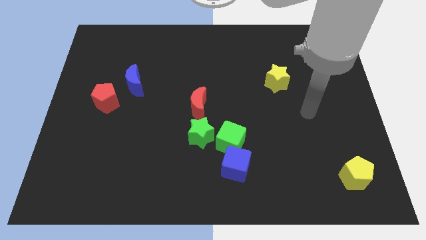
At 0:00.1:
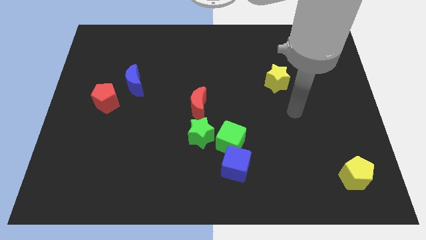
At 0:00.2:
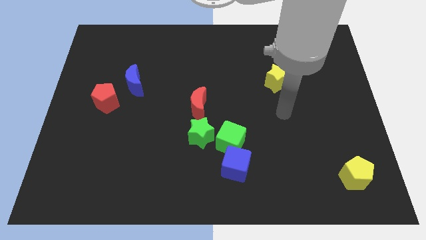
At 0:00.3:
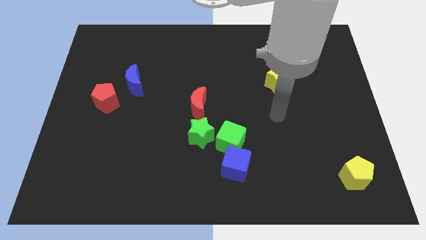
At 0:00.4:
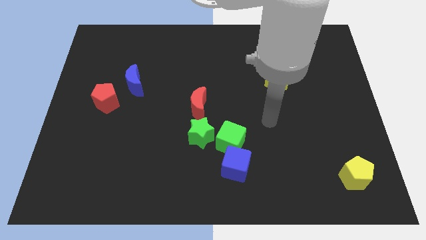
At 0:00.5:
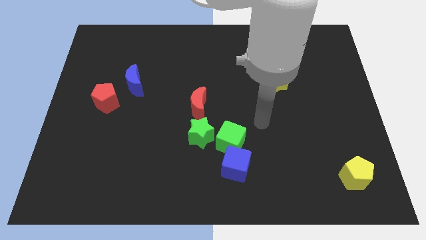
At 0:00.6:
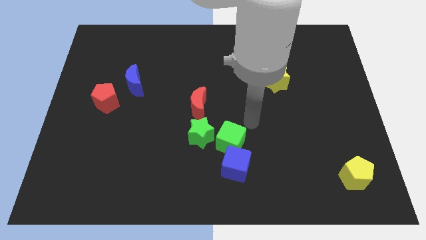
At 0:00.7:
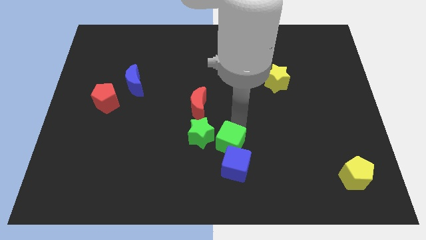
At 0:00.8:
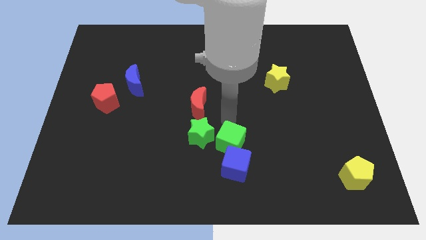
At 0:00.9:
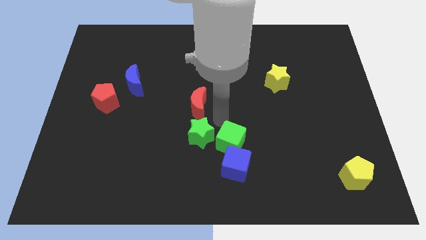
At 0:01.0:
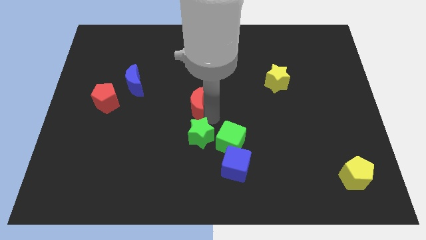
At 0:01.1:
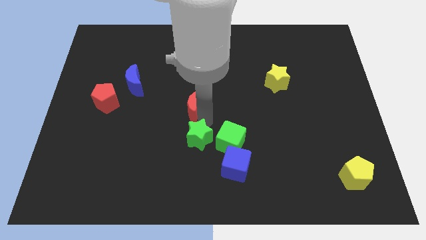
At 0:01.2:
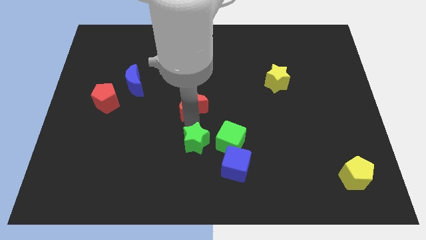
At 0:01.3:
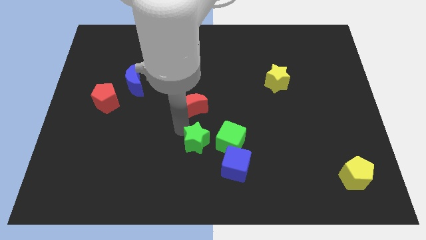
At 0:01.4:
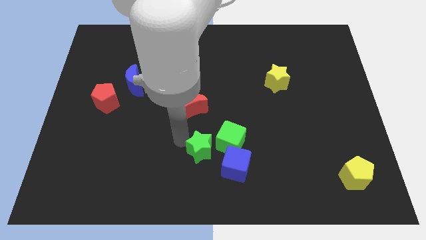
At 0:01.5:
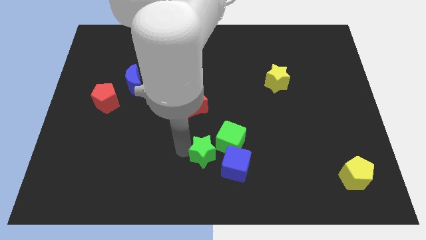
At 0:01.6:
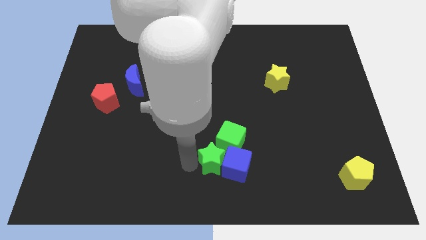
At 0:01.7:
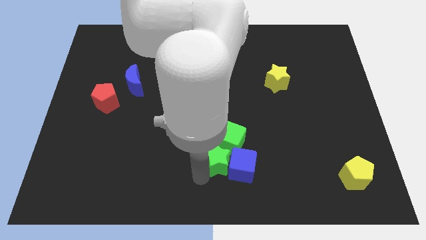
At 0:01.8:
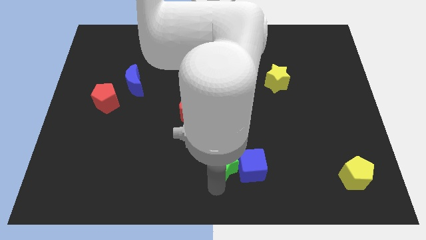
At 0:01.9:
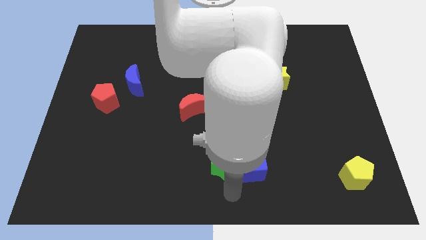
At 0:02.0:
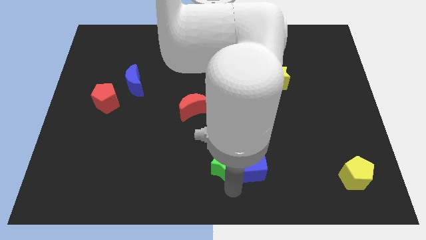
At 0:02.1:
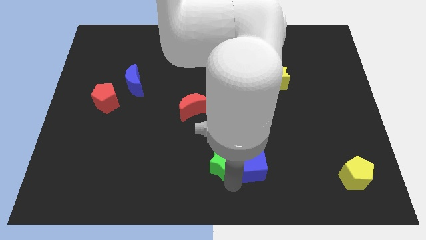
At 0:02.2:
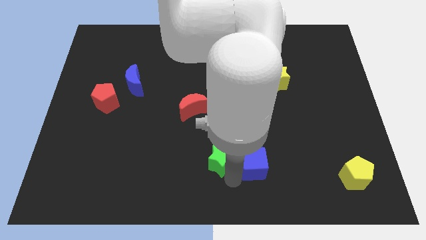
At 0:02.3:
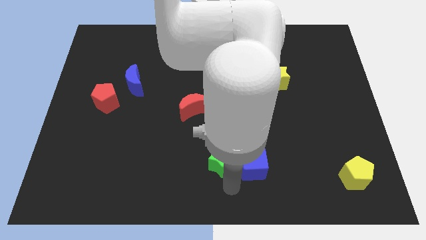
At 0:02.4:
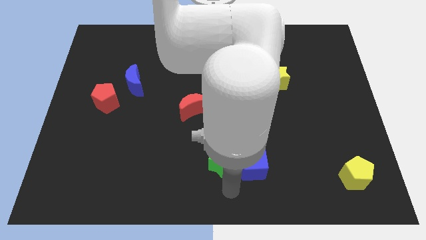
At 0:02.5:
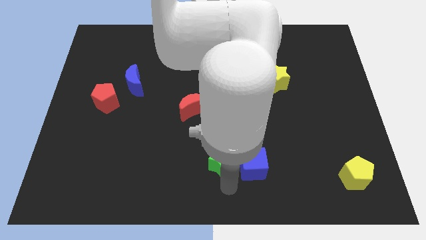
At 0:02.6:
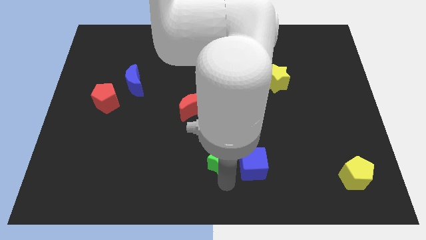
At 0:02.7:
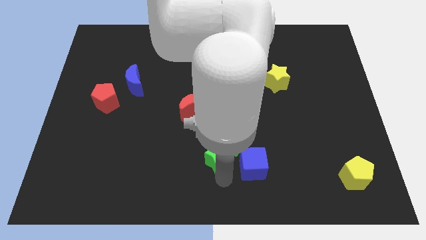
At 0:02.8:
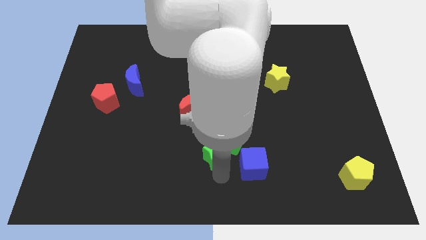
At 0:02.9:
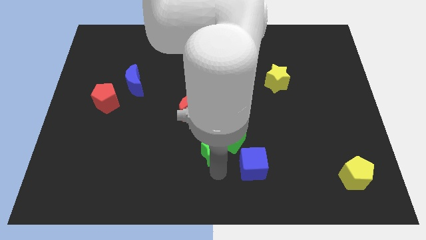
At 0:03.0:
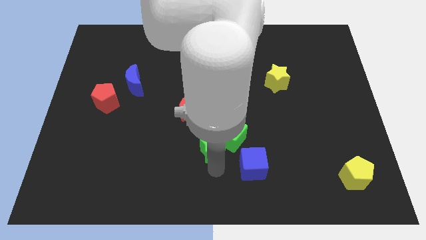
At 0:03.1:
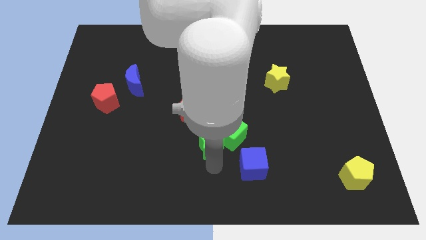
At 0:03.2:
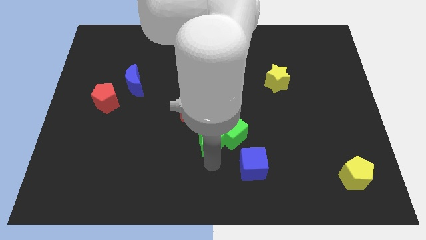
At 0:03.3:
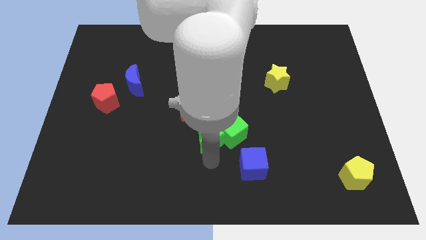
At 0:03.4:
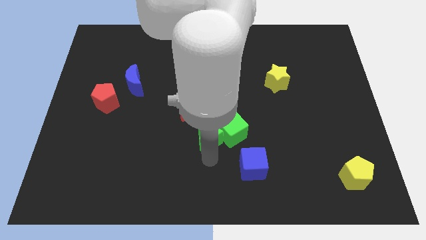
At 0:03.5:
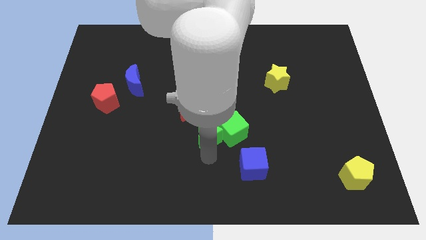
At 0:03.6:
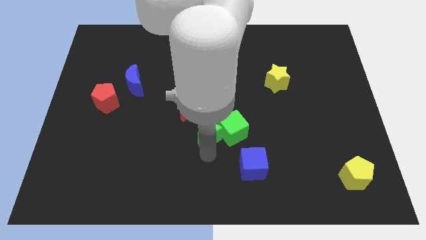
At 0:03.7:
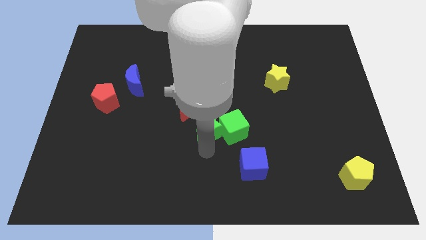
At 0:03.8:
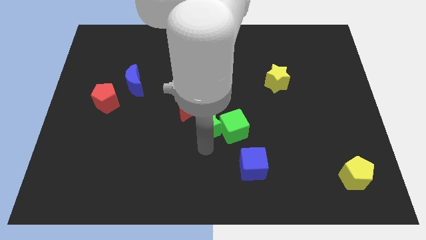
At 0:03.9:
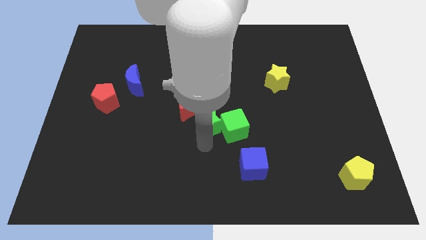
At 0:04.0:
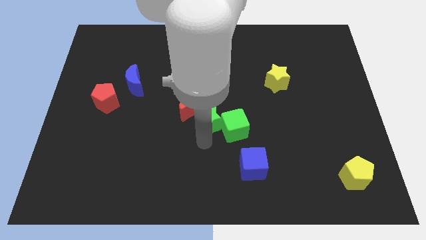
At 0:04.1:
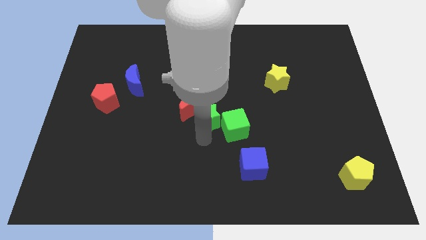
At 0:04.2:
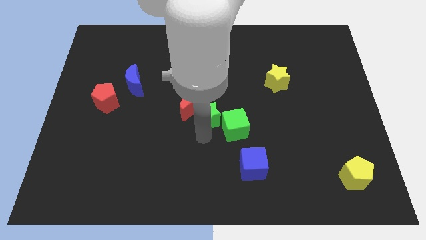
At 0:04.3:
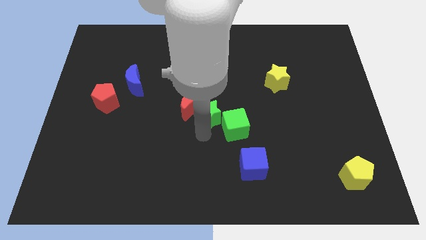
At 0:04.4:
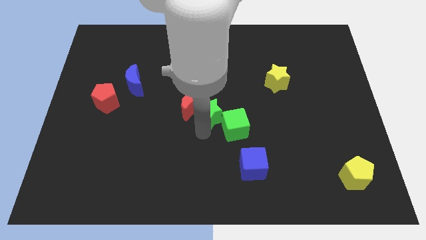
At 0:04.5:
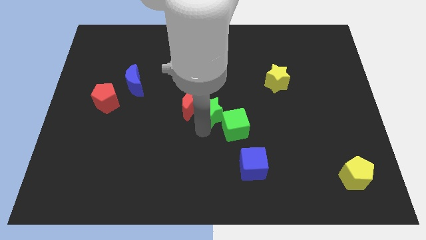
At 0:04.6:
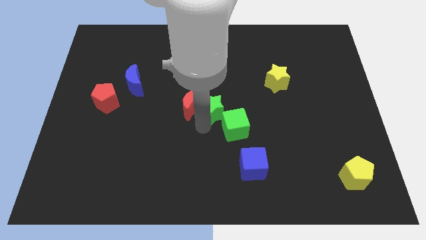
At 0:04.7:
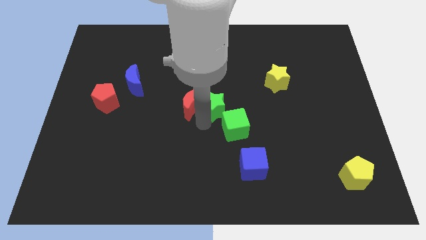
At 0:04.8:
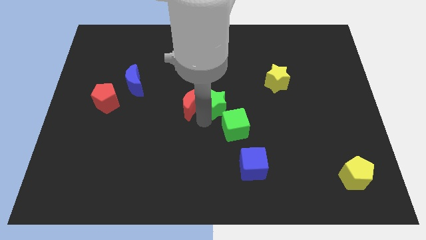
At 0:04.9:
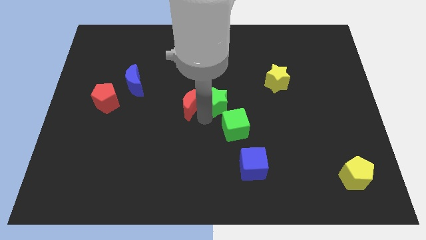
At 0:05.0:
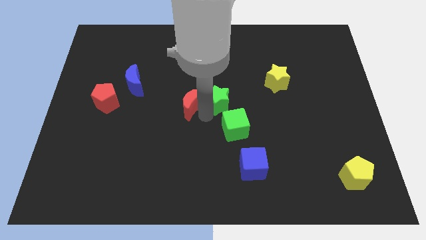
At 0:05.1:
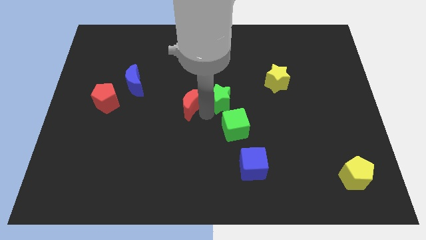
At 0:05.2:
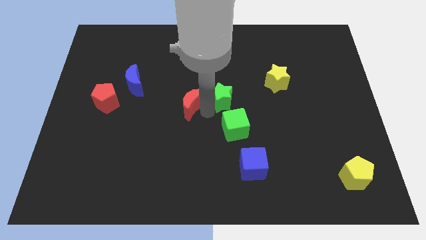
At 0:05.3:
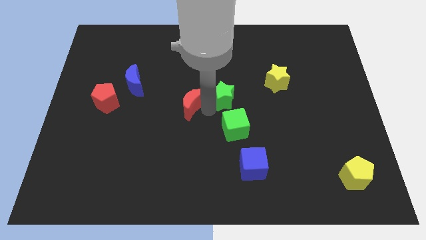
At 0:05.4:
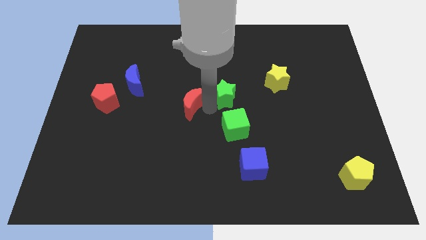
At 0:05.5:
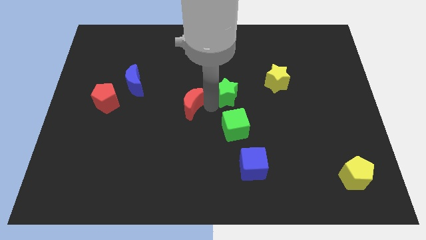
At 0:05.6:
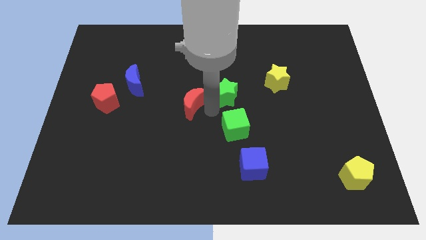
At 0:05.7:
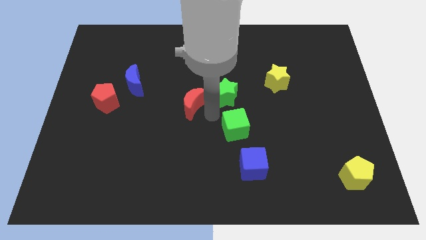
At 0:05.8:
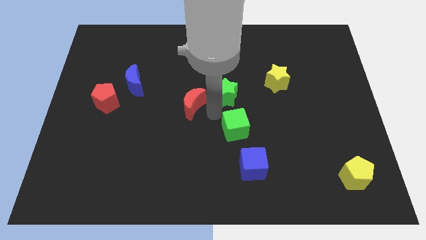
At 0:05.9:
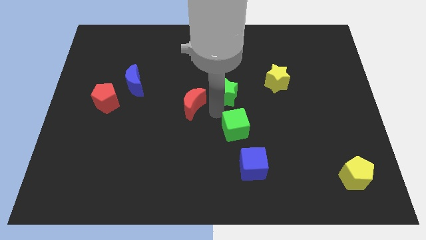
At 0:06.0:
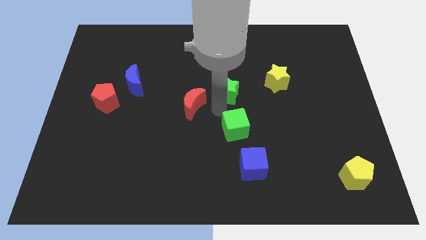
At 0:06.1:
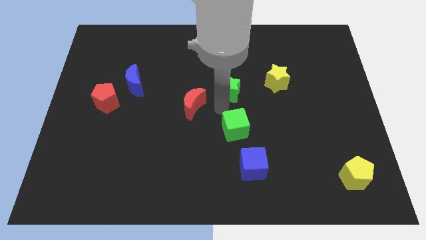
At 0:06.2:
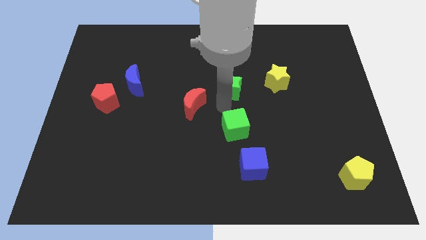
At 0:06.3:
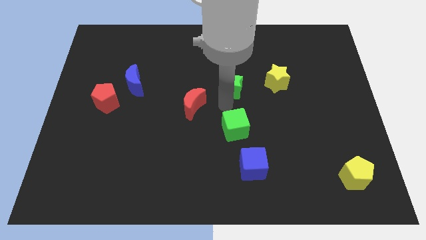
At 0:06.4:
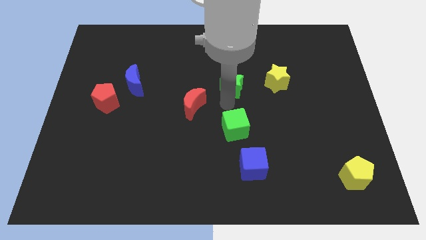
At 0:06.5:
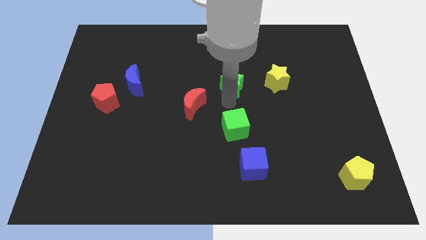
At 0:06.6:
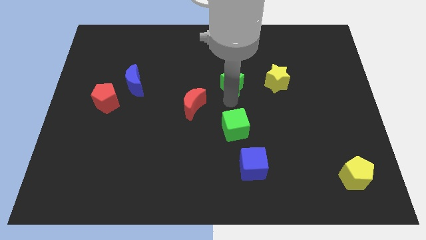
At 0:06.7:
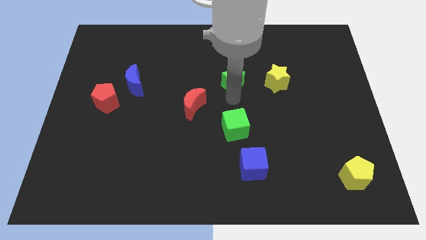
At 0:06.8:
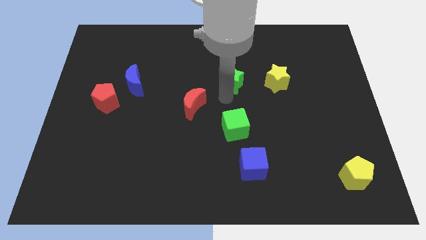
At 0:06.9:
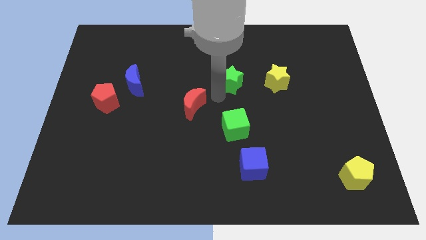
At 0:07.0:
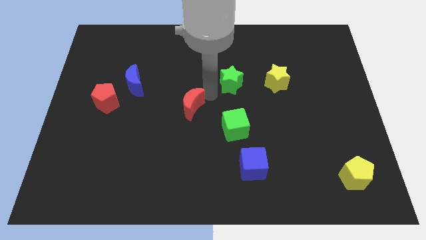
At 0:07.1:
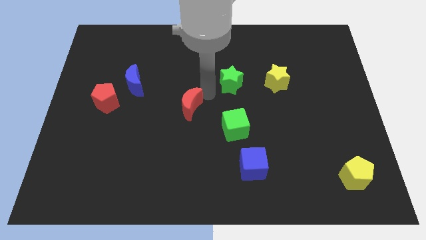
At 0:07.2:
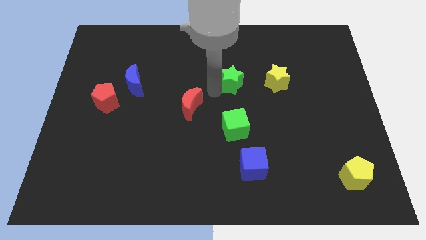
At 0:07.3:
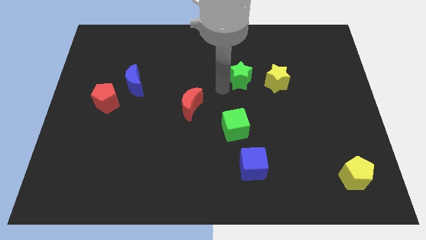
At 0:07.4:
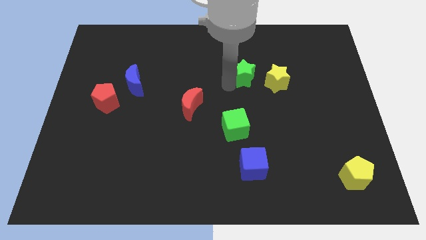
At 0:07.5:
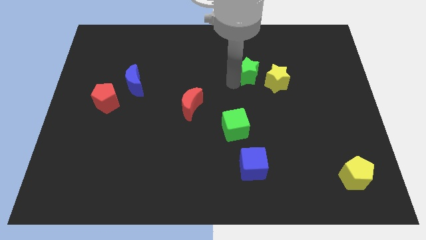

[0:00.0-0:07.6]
slide the green star upwards and to the right diagonally

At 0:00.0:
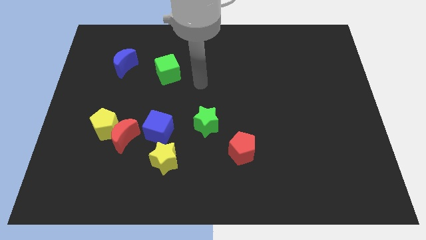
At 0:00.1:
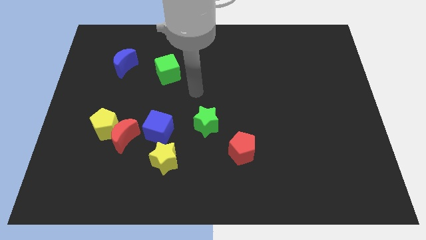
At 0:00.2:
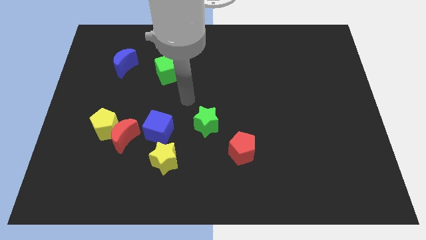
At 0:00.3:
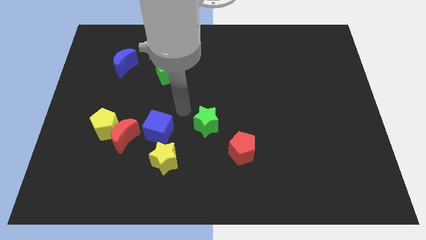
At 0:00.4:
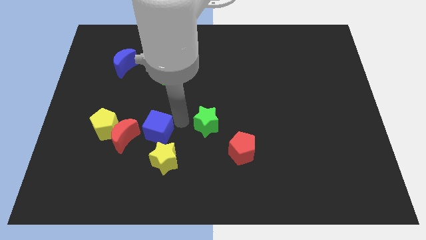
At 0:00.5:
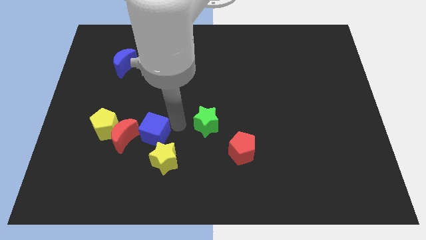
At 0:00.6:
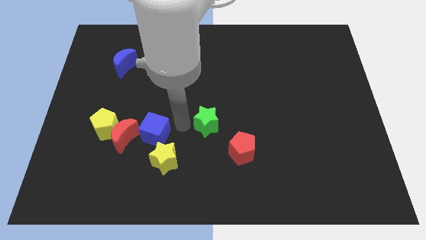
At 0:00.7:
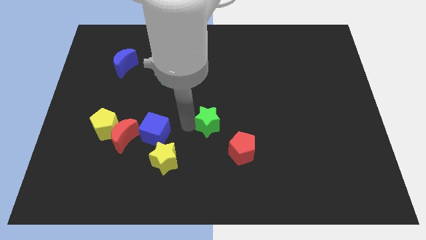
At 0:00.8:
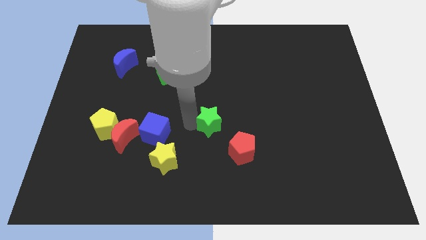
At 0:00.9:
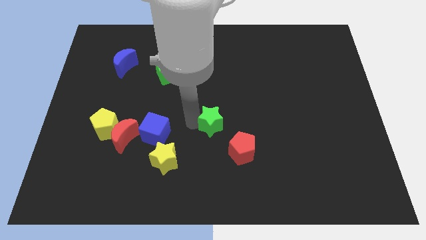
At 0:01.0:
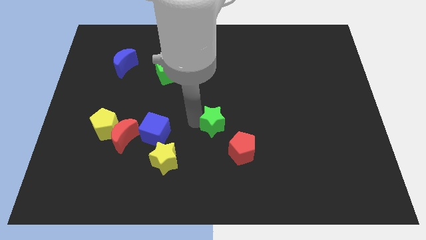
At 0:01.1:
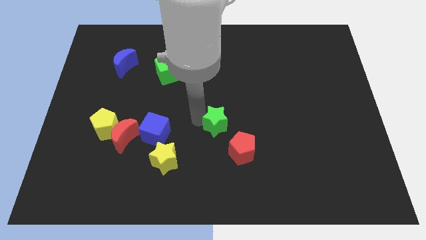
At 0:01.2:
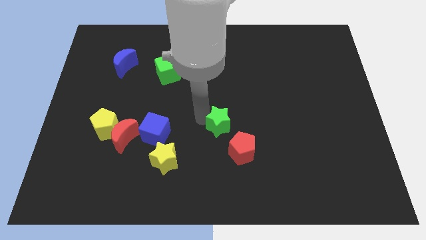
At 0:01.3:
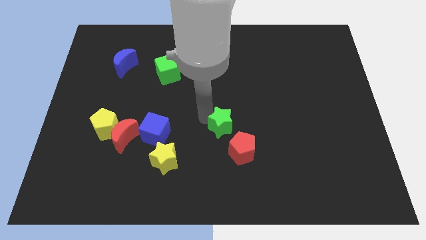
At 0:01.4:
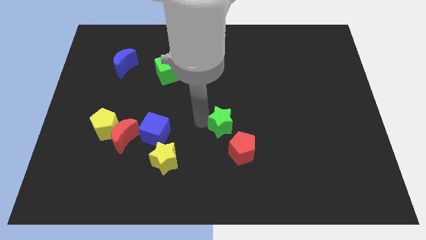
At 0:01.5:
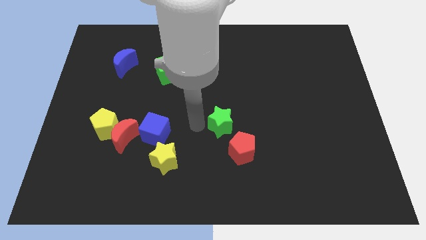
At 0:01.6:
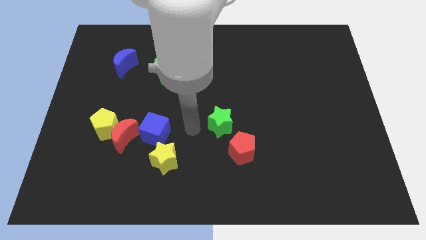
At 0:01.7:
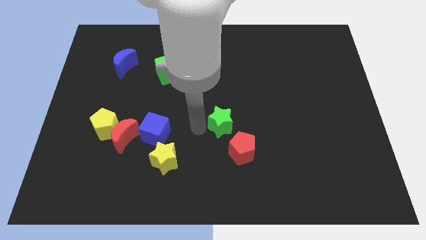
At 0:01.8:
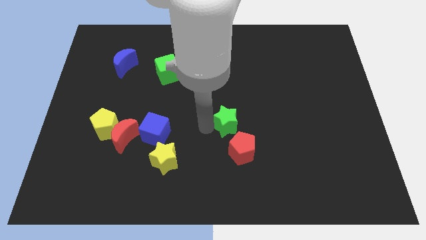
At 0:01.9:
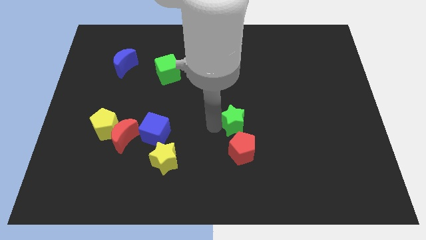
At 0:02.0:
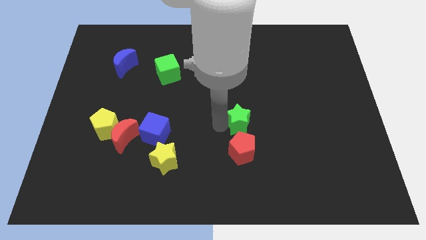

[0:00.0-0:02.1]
slightly move the green star to the right
